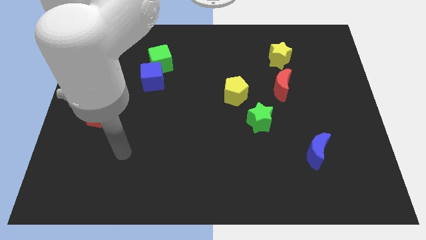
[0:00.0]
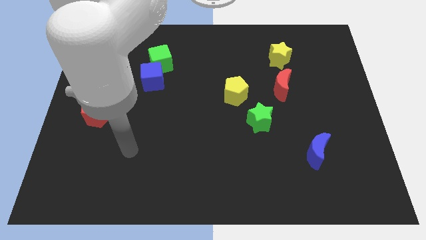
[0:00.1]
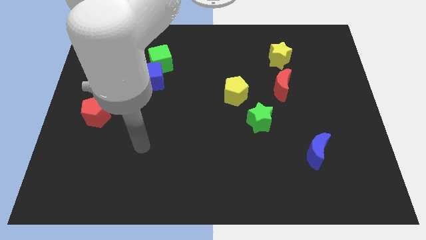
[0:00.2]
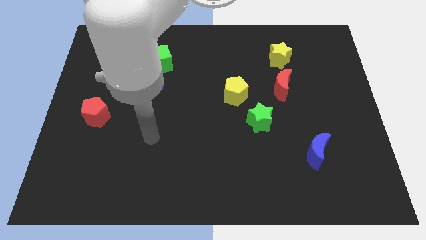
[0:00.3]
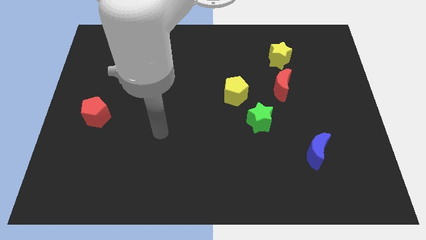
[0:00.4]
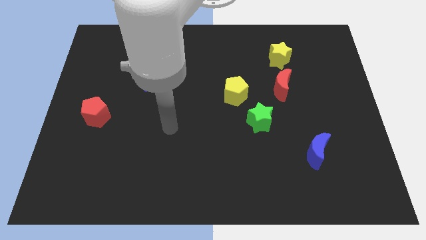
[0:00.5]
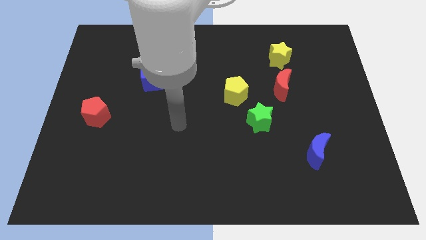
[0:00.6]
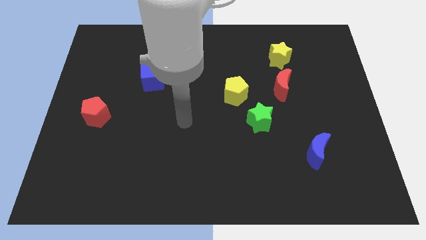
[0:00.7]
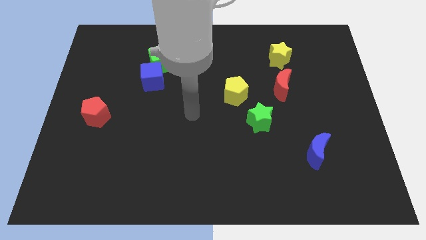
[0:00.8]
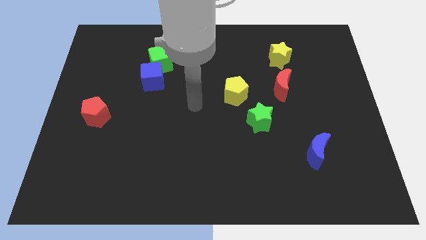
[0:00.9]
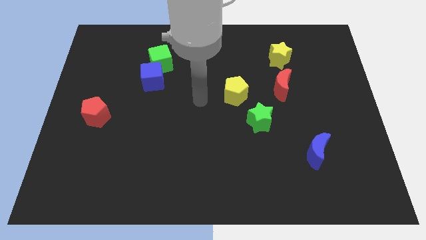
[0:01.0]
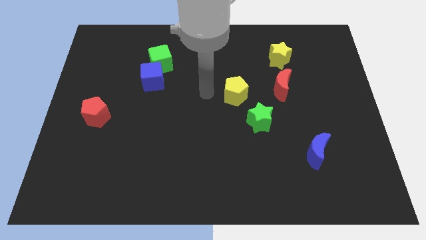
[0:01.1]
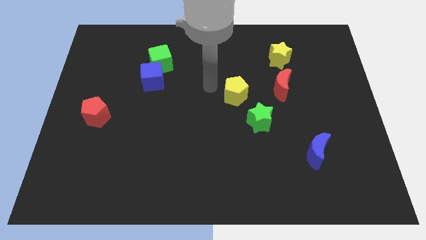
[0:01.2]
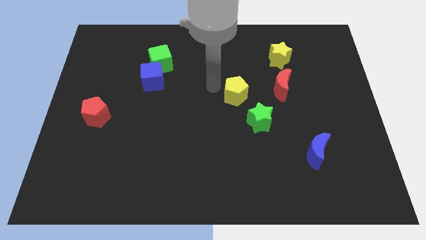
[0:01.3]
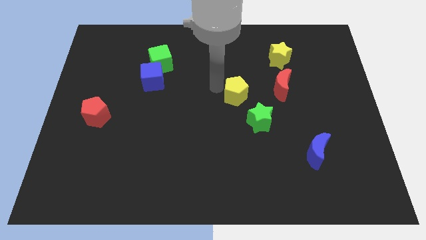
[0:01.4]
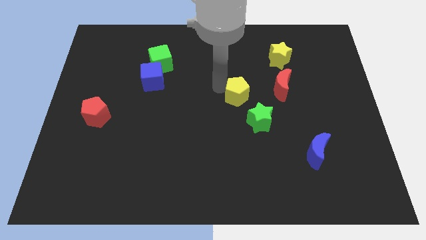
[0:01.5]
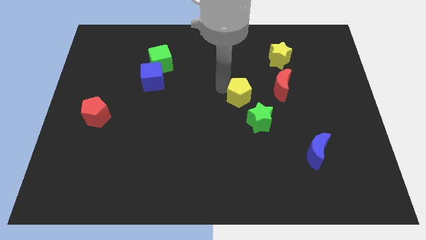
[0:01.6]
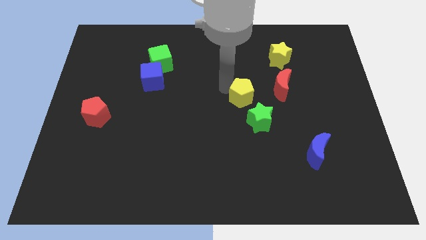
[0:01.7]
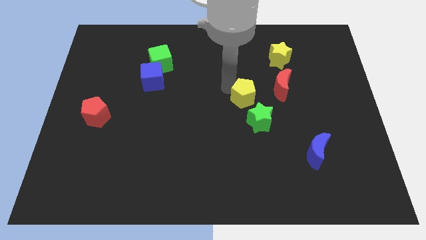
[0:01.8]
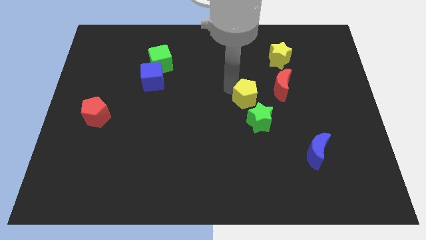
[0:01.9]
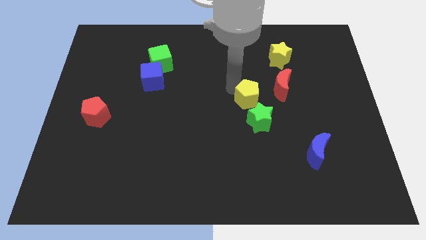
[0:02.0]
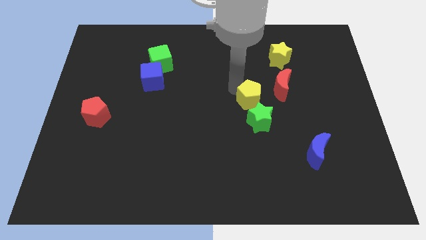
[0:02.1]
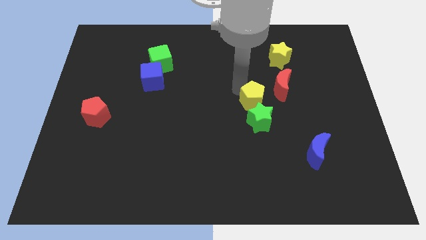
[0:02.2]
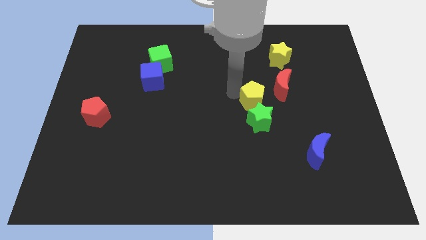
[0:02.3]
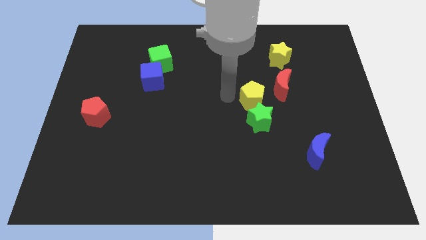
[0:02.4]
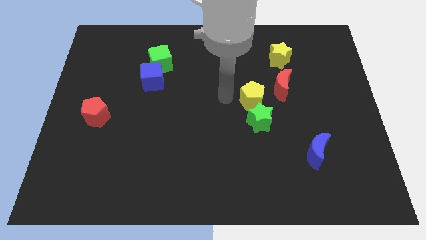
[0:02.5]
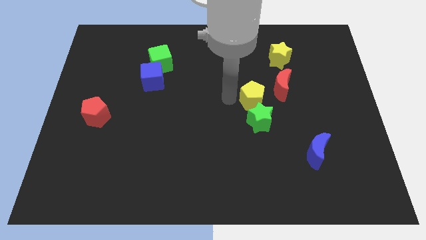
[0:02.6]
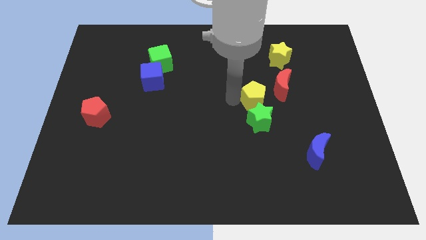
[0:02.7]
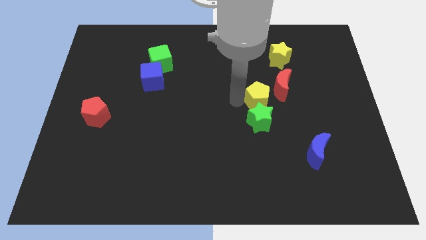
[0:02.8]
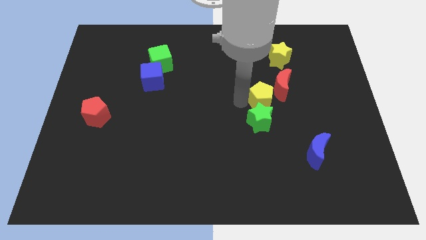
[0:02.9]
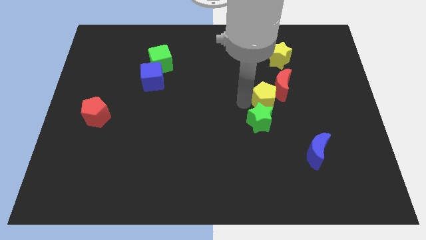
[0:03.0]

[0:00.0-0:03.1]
slide the yellow pentagon to the right somewhat

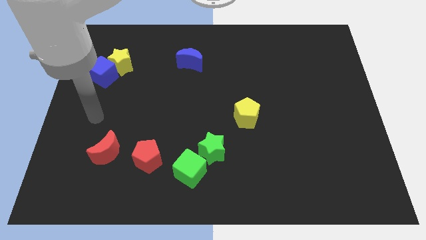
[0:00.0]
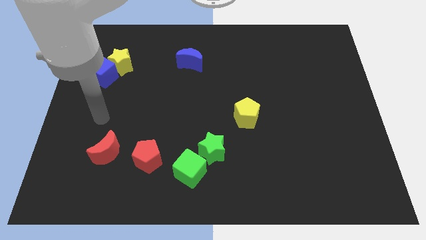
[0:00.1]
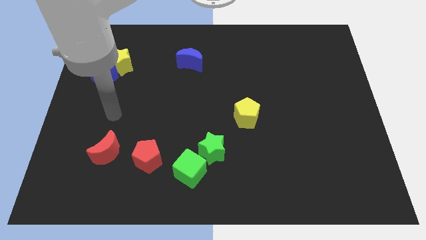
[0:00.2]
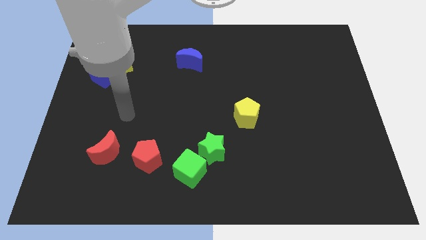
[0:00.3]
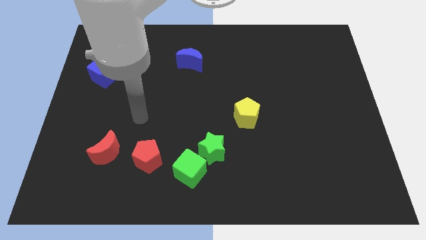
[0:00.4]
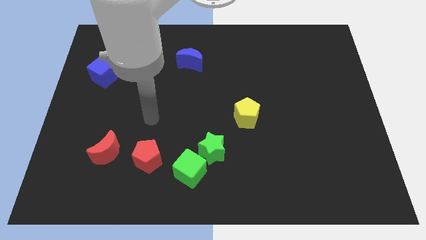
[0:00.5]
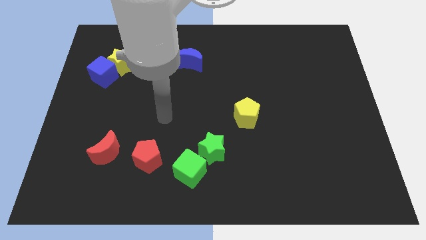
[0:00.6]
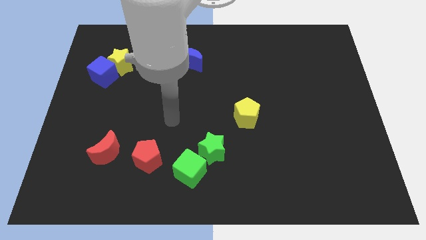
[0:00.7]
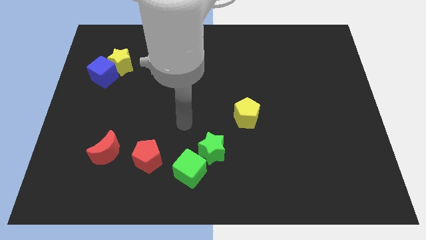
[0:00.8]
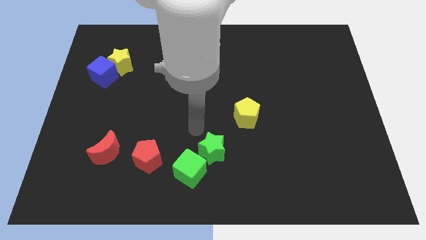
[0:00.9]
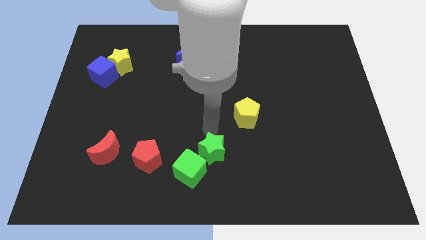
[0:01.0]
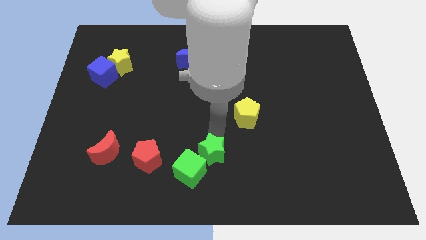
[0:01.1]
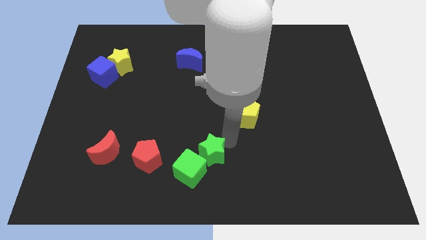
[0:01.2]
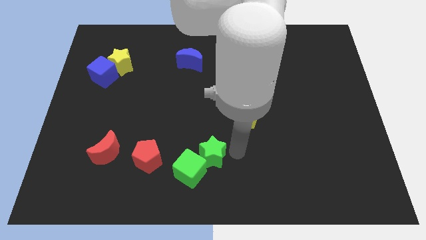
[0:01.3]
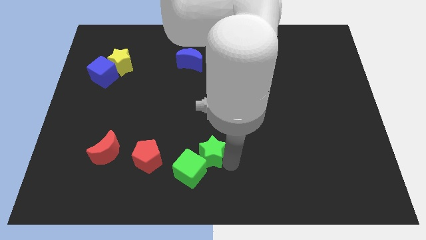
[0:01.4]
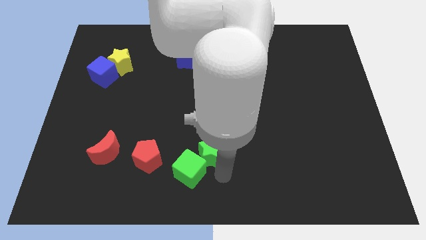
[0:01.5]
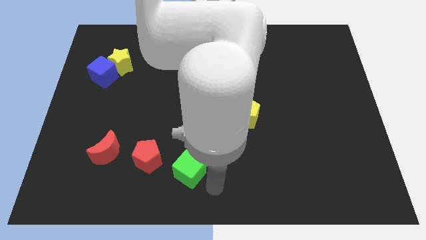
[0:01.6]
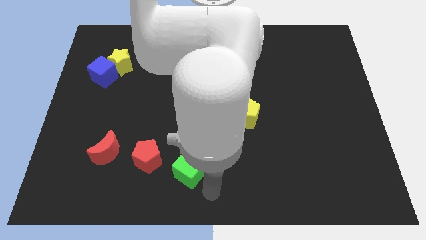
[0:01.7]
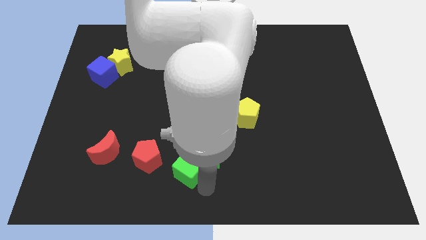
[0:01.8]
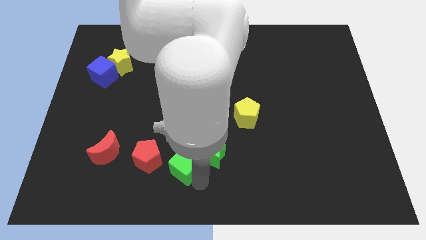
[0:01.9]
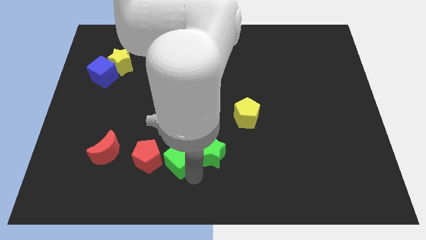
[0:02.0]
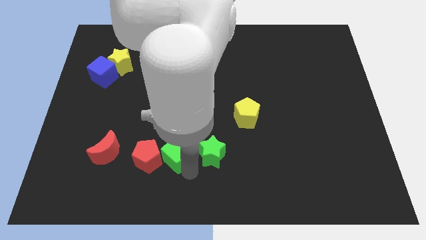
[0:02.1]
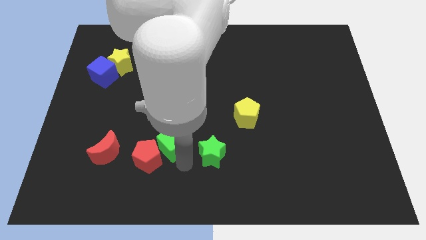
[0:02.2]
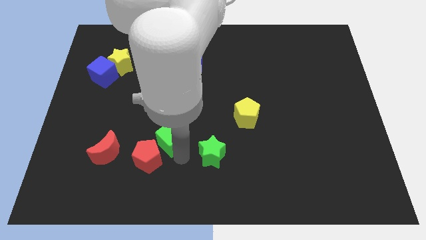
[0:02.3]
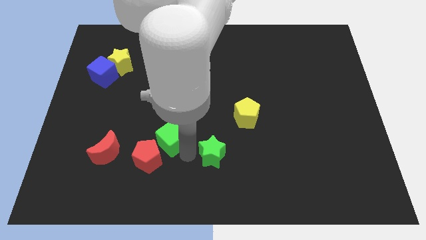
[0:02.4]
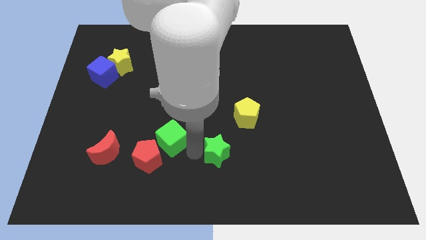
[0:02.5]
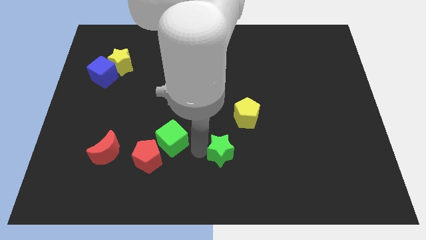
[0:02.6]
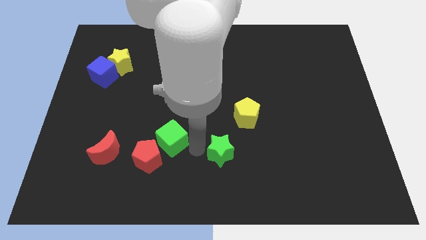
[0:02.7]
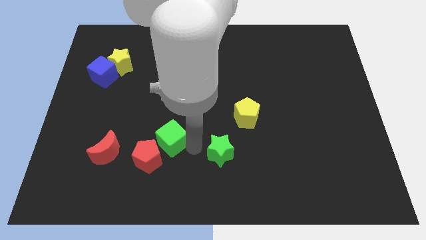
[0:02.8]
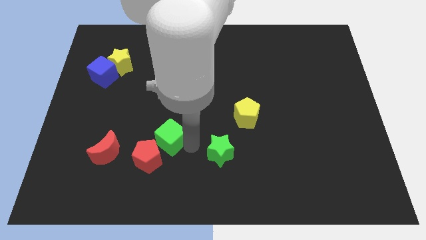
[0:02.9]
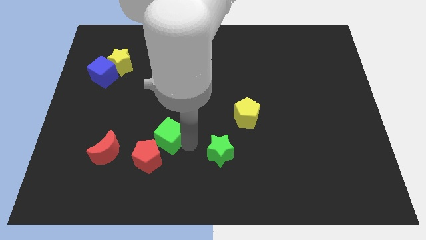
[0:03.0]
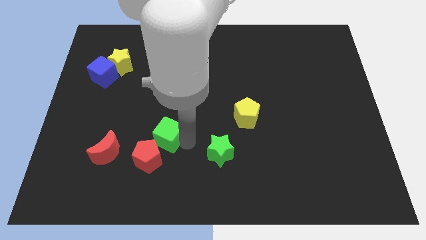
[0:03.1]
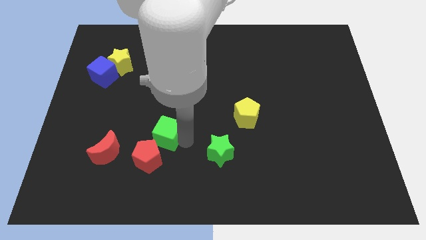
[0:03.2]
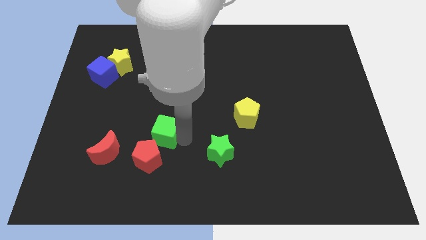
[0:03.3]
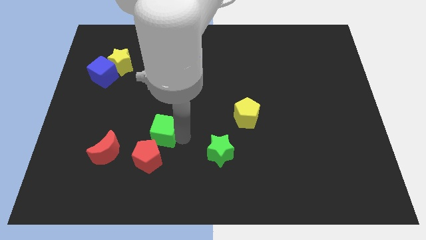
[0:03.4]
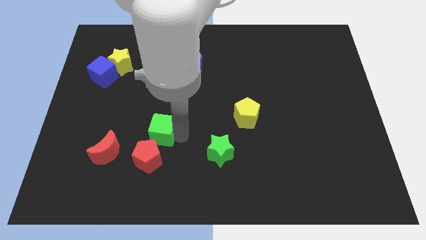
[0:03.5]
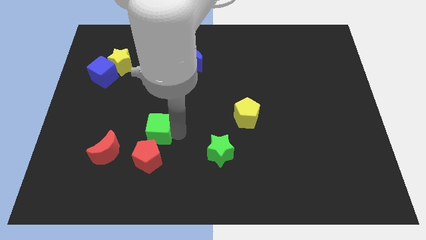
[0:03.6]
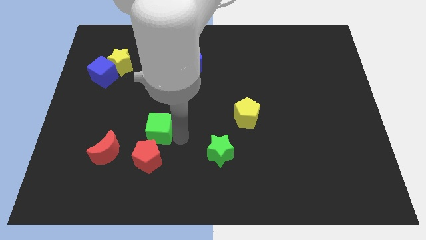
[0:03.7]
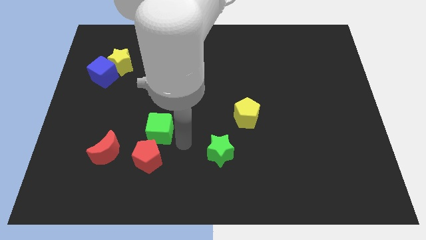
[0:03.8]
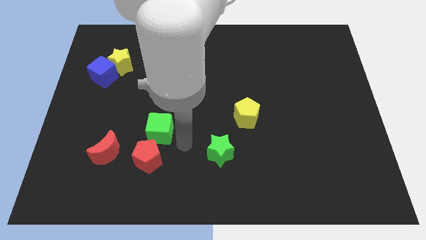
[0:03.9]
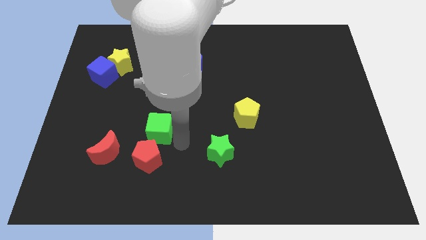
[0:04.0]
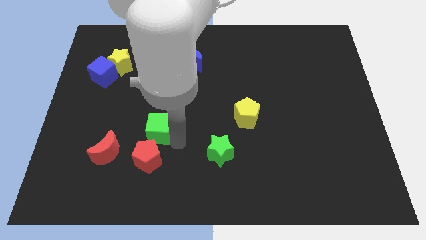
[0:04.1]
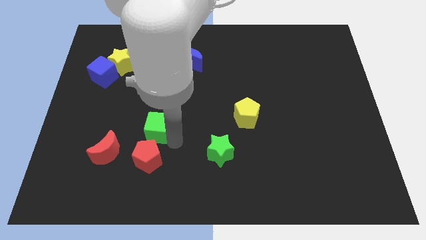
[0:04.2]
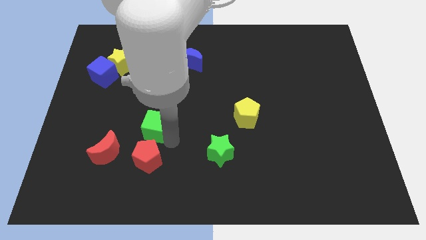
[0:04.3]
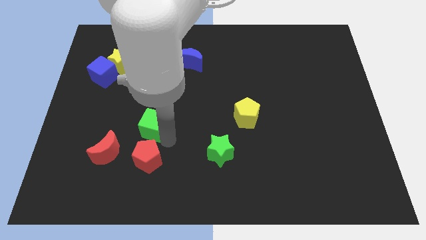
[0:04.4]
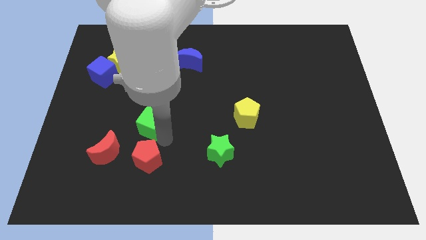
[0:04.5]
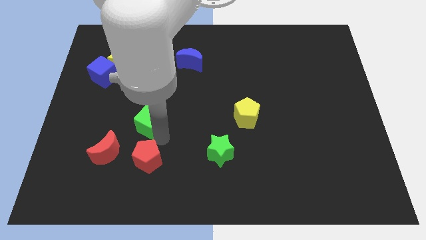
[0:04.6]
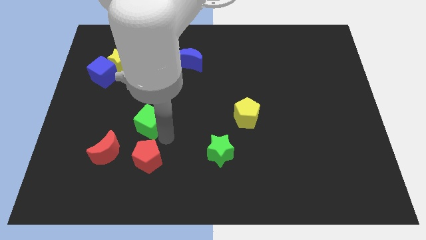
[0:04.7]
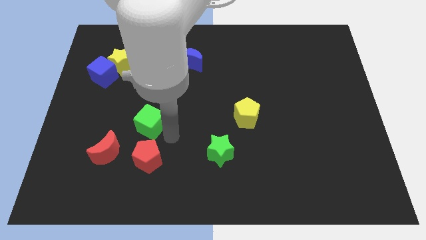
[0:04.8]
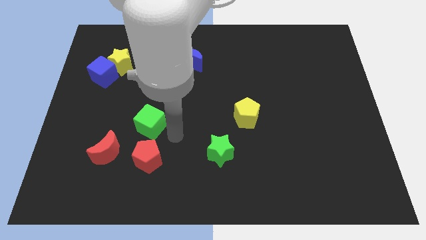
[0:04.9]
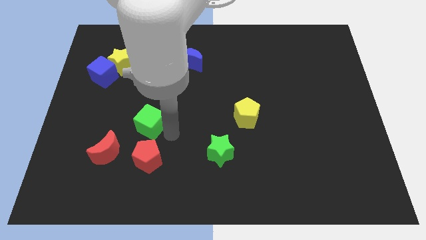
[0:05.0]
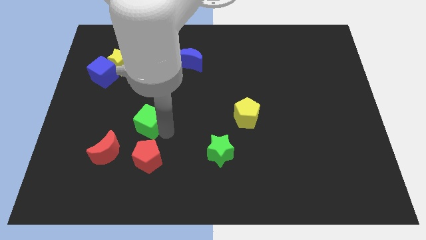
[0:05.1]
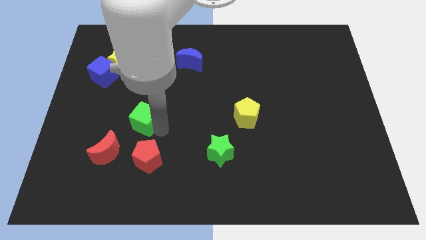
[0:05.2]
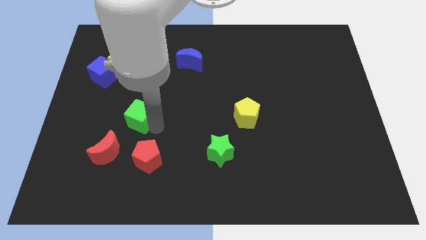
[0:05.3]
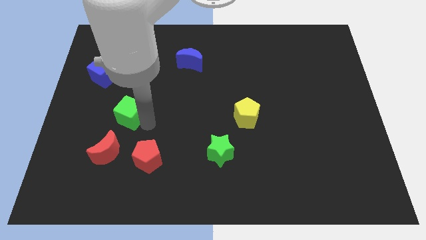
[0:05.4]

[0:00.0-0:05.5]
slide the green cube upwards and then to the left
